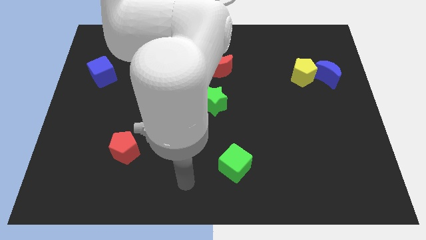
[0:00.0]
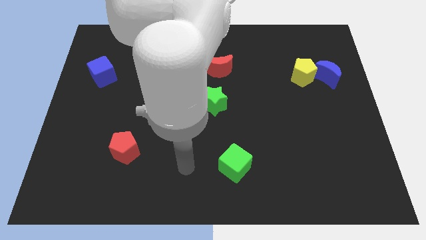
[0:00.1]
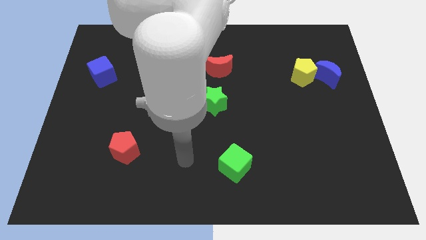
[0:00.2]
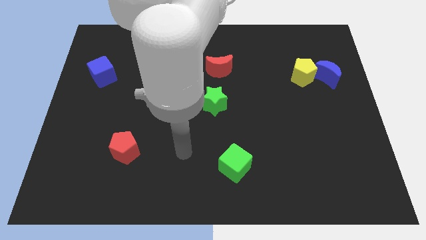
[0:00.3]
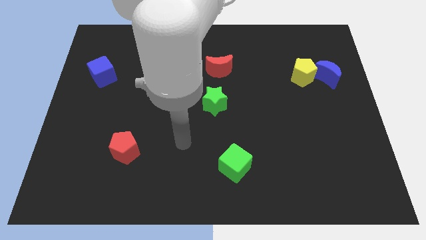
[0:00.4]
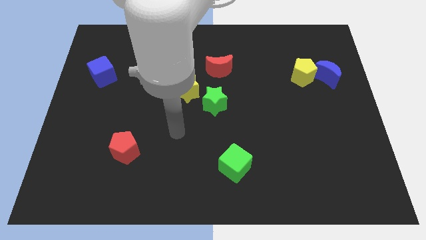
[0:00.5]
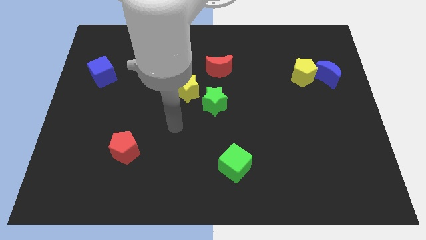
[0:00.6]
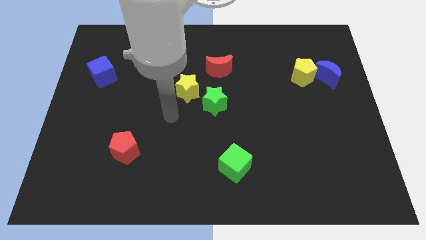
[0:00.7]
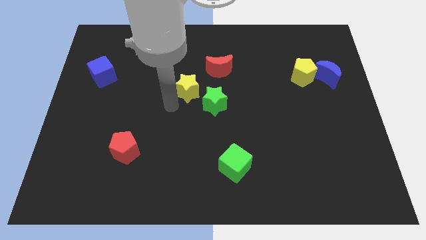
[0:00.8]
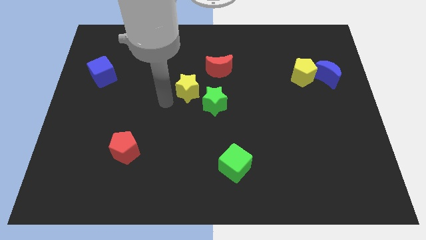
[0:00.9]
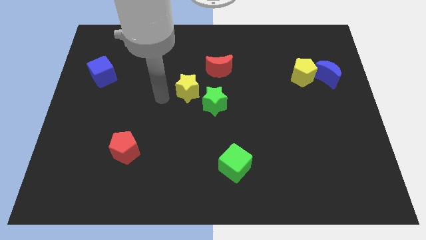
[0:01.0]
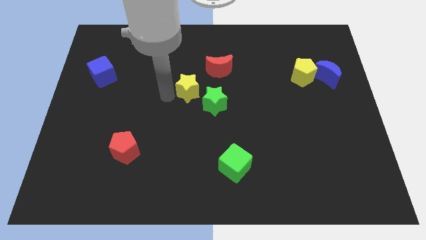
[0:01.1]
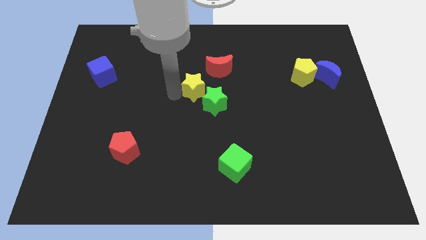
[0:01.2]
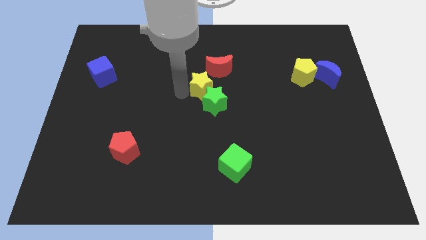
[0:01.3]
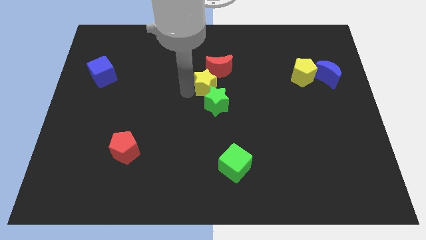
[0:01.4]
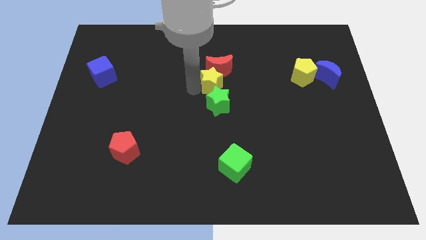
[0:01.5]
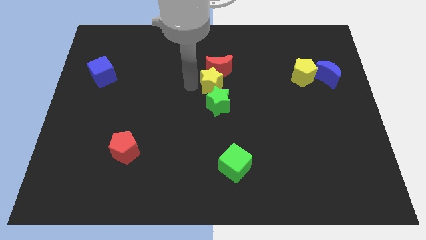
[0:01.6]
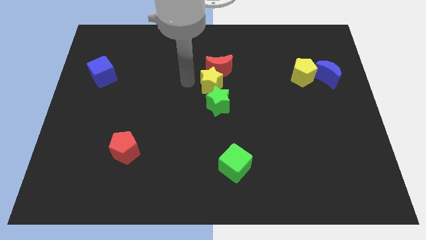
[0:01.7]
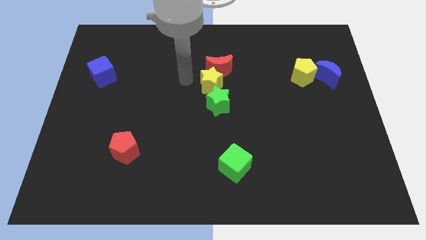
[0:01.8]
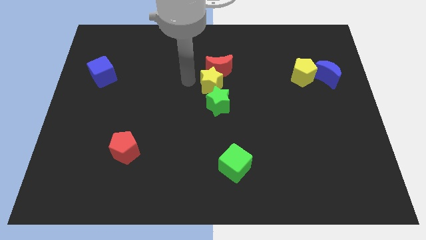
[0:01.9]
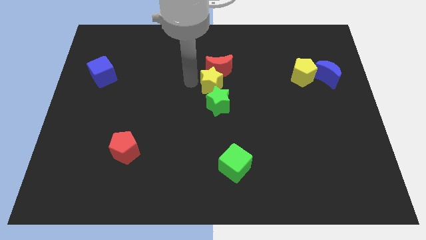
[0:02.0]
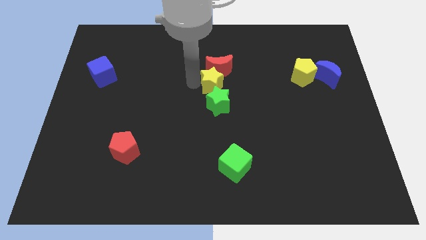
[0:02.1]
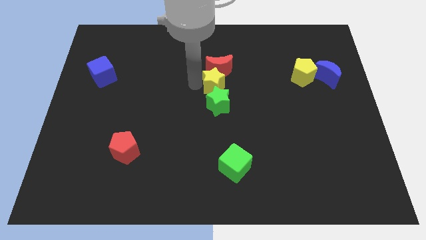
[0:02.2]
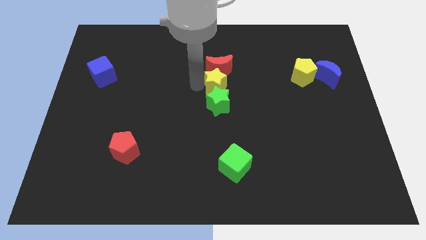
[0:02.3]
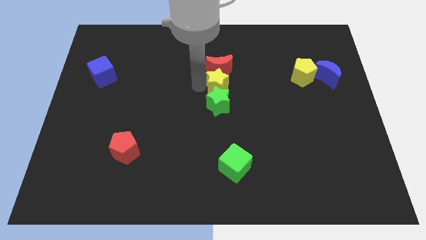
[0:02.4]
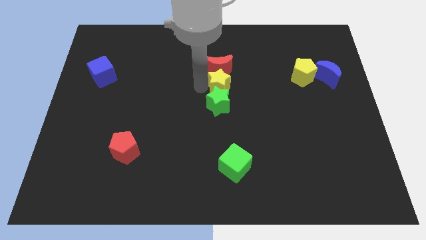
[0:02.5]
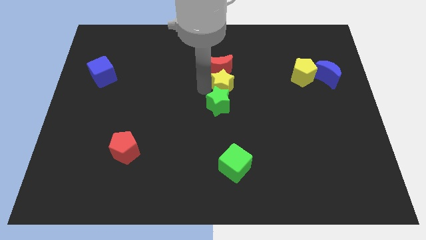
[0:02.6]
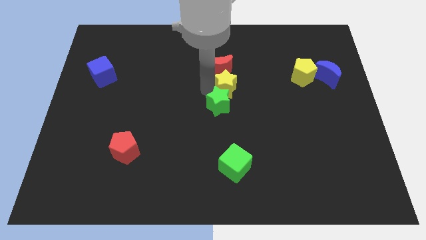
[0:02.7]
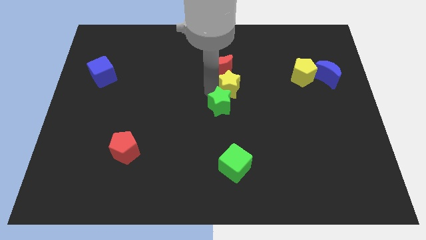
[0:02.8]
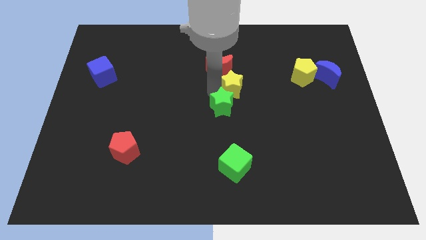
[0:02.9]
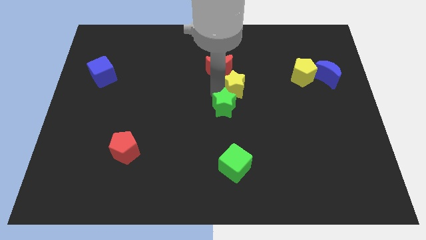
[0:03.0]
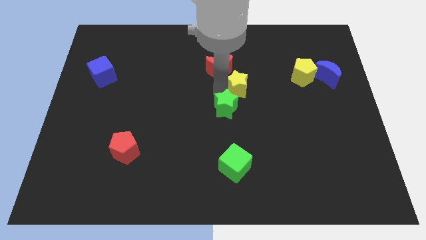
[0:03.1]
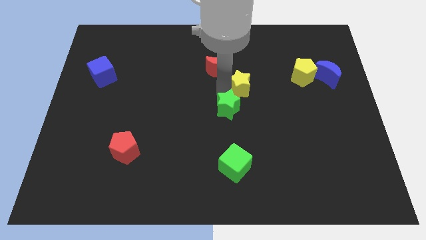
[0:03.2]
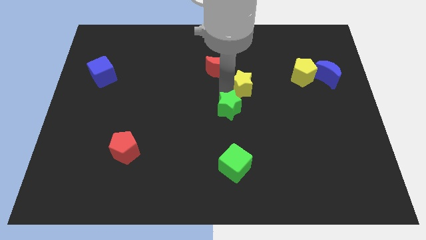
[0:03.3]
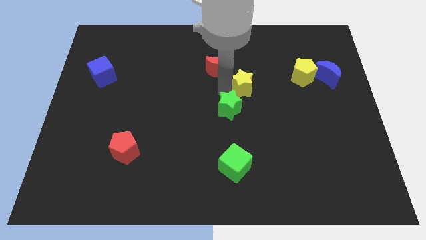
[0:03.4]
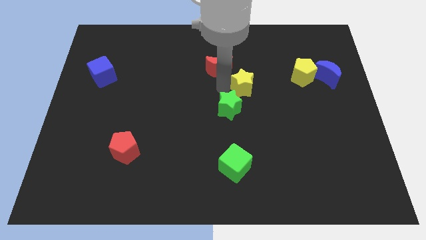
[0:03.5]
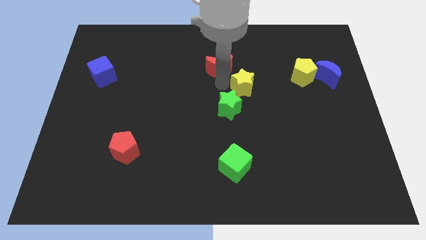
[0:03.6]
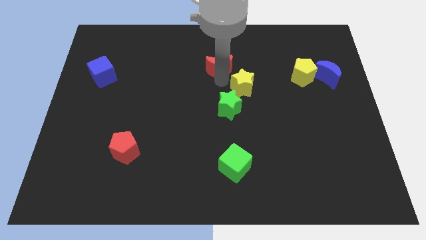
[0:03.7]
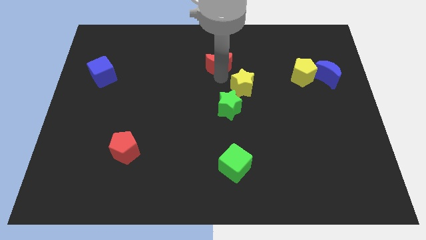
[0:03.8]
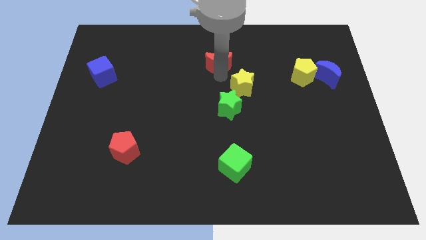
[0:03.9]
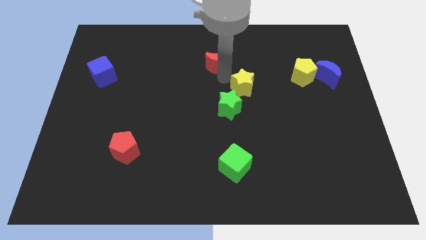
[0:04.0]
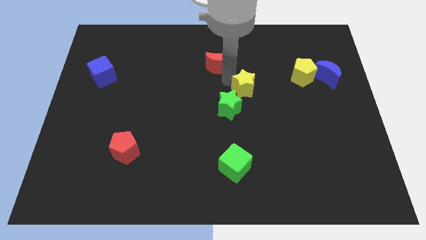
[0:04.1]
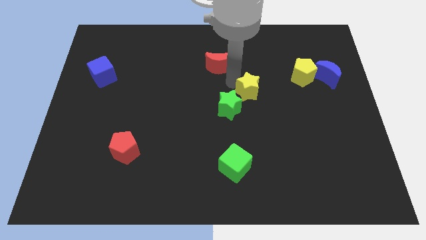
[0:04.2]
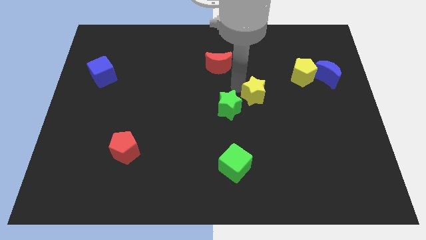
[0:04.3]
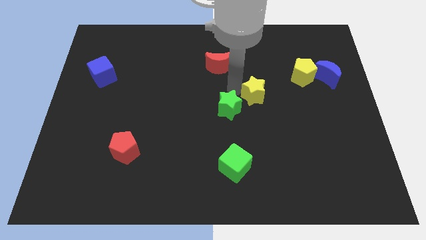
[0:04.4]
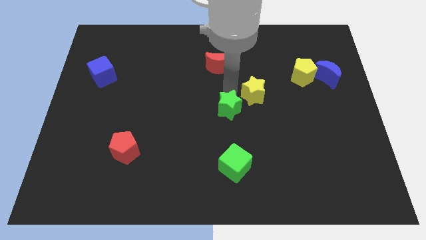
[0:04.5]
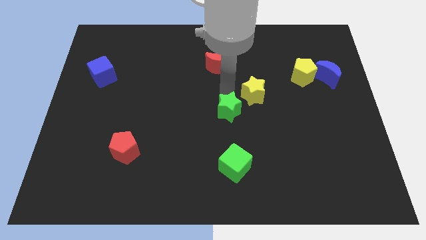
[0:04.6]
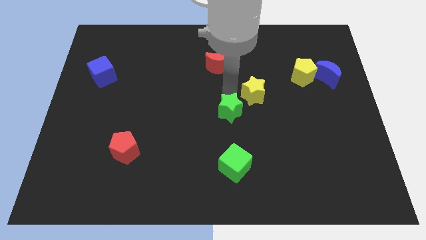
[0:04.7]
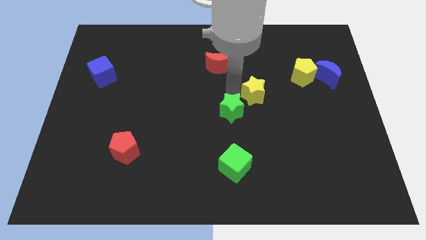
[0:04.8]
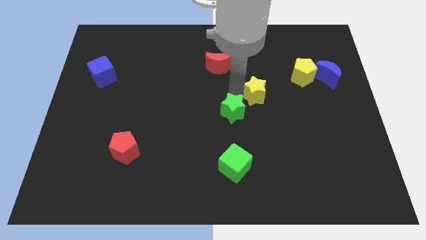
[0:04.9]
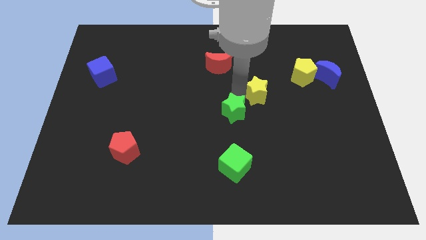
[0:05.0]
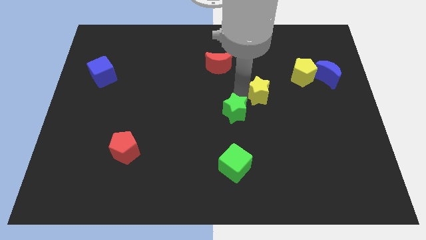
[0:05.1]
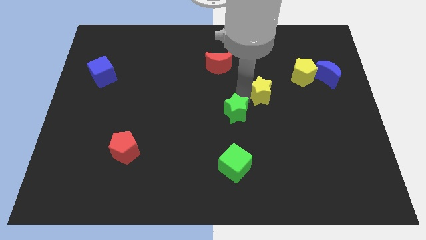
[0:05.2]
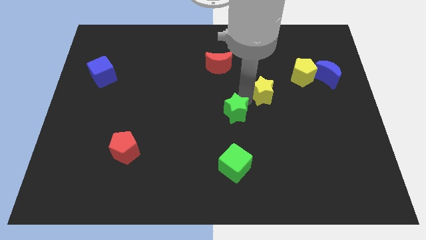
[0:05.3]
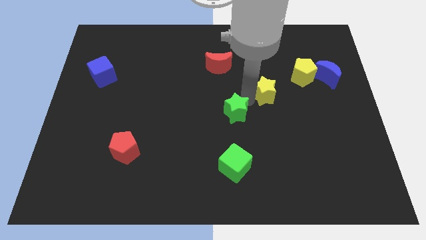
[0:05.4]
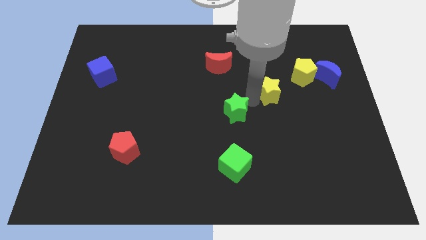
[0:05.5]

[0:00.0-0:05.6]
push the yellow star to the right

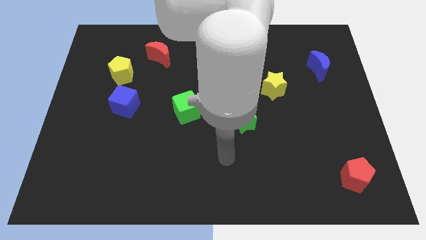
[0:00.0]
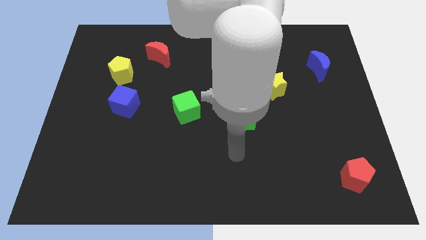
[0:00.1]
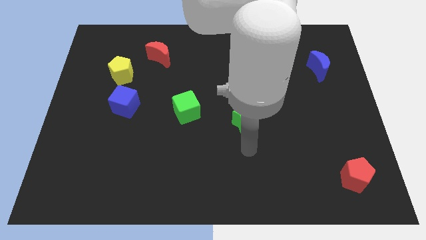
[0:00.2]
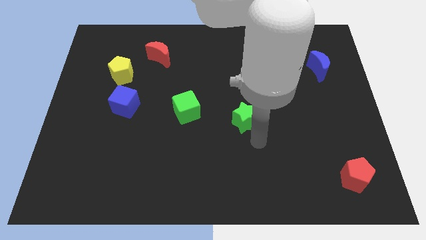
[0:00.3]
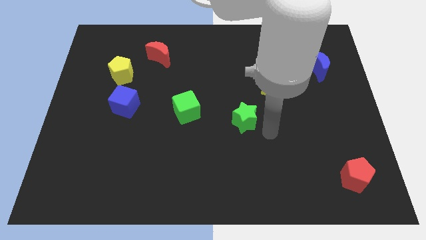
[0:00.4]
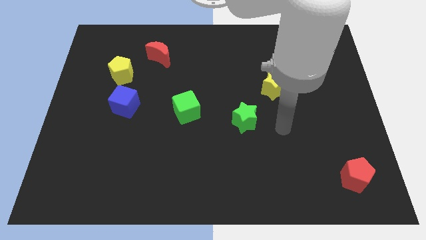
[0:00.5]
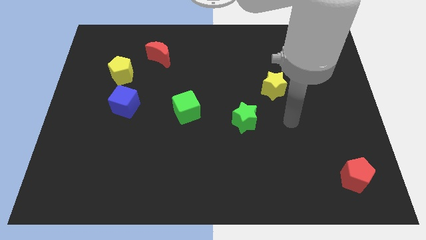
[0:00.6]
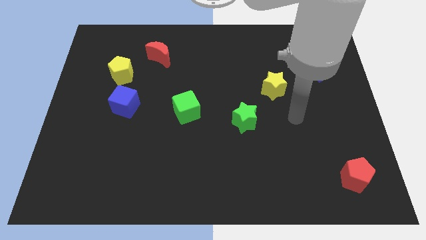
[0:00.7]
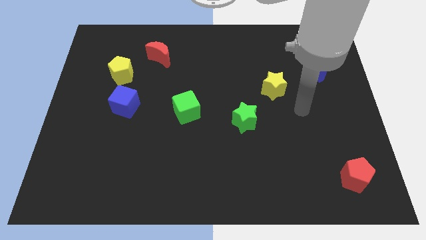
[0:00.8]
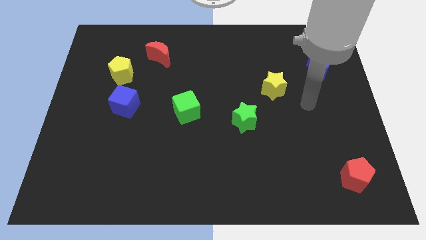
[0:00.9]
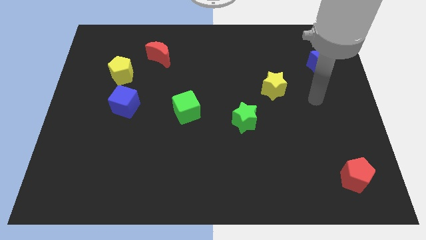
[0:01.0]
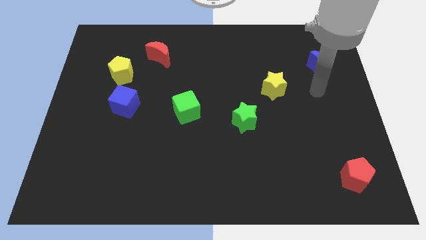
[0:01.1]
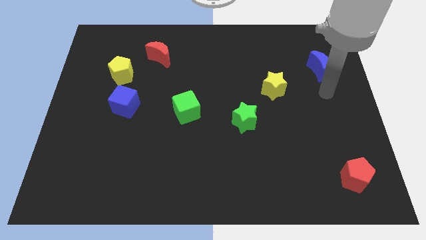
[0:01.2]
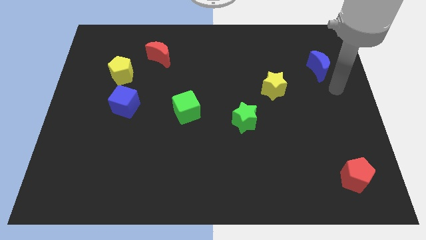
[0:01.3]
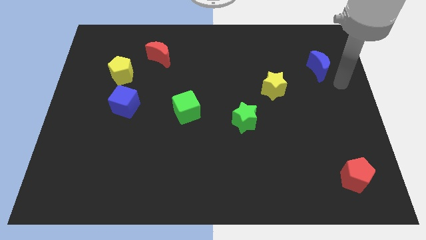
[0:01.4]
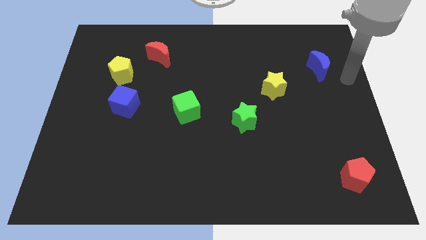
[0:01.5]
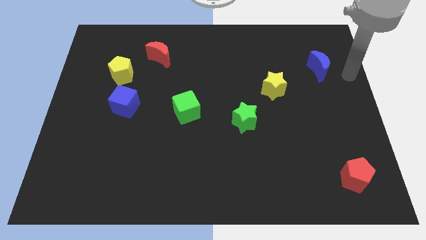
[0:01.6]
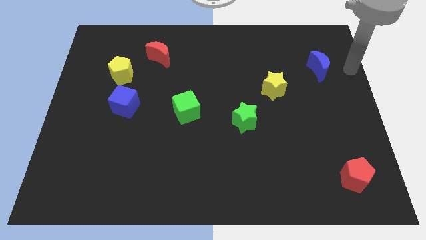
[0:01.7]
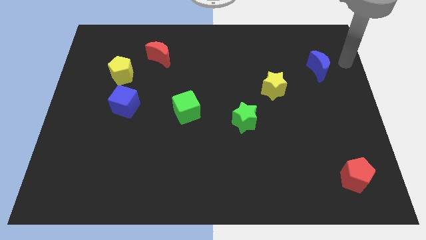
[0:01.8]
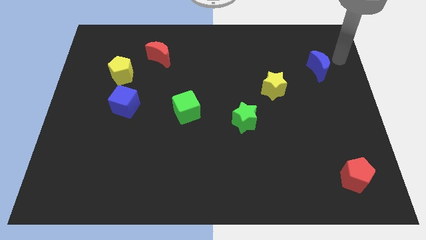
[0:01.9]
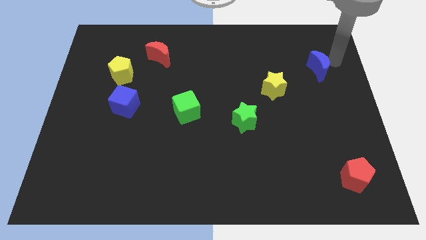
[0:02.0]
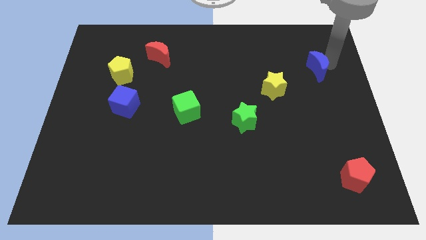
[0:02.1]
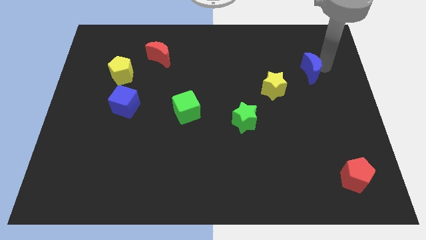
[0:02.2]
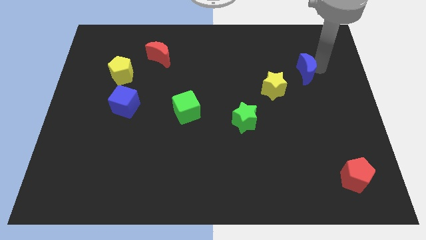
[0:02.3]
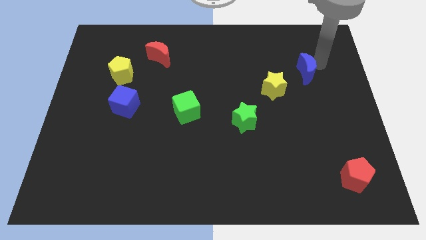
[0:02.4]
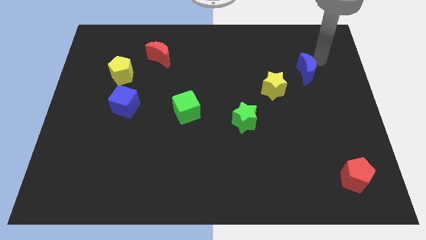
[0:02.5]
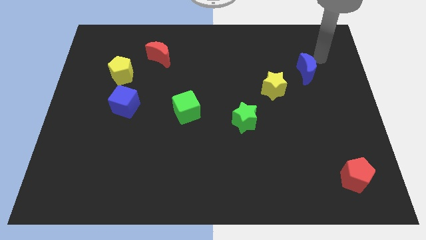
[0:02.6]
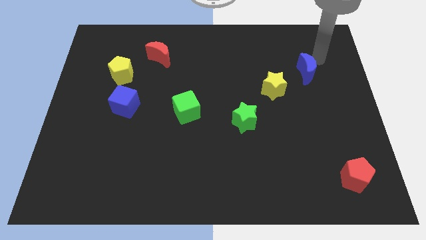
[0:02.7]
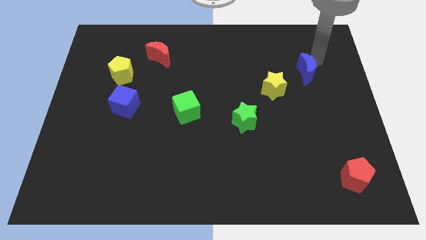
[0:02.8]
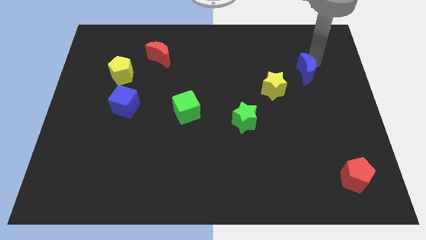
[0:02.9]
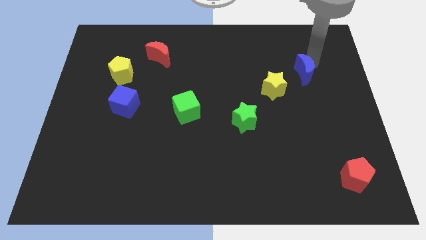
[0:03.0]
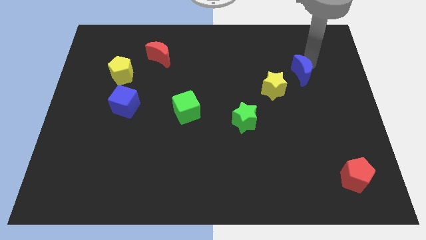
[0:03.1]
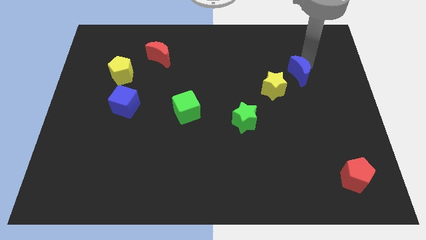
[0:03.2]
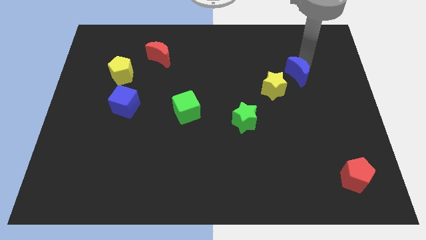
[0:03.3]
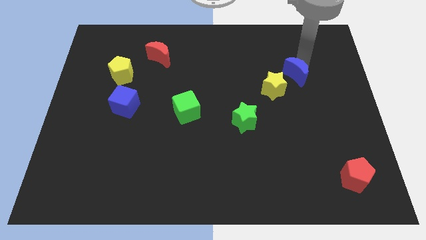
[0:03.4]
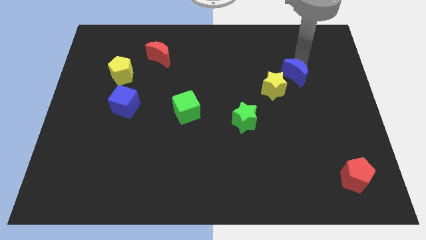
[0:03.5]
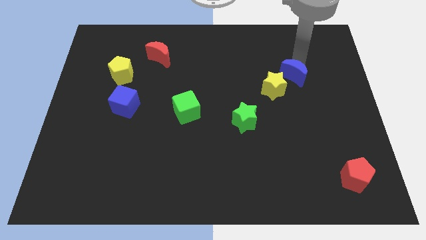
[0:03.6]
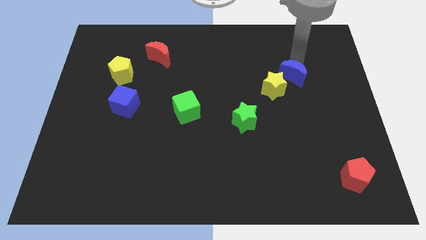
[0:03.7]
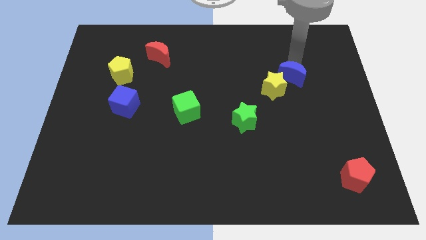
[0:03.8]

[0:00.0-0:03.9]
push the blue moon diagonally downwards and left a little bit
